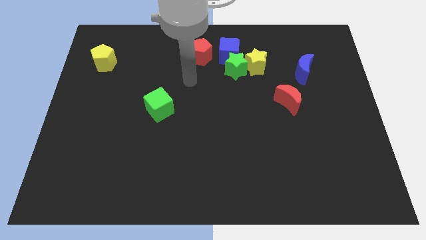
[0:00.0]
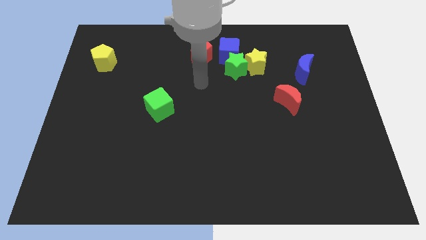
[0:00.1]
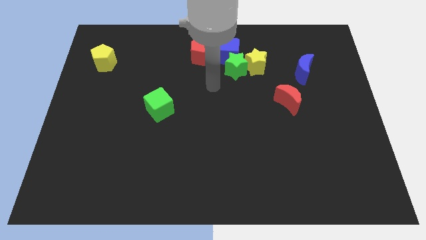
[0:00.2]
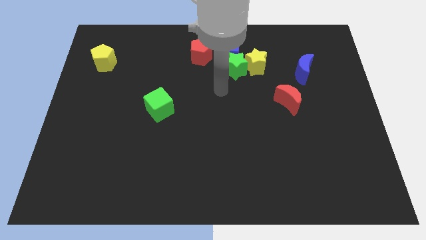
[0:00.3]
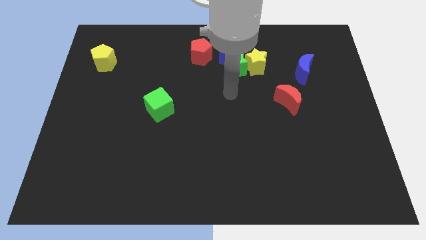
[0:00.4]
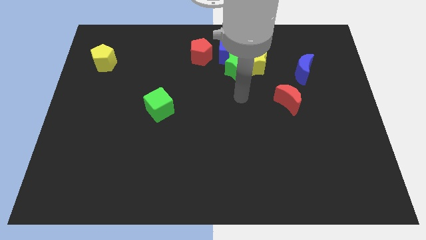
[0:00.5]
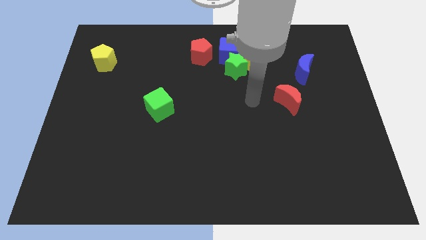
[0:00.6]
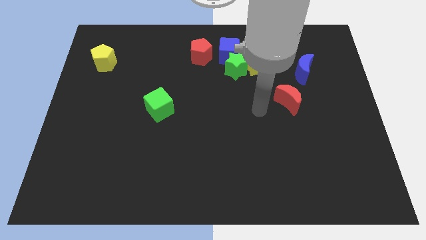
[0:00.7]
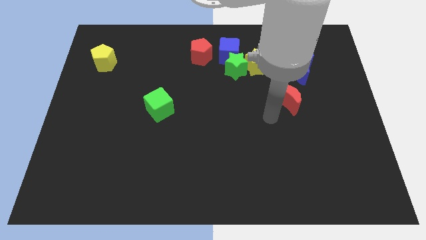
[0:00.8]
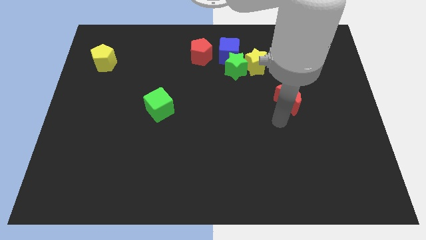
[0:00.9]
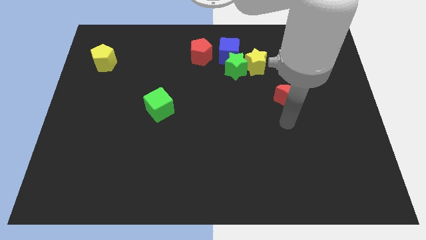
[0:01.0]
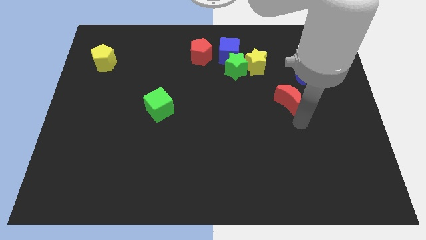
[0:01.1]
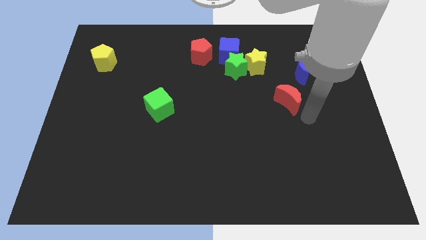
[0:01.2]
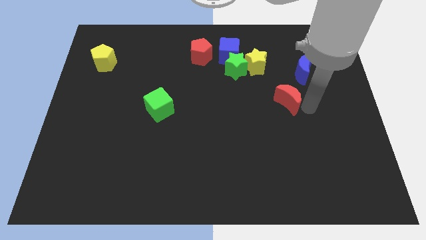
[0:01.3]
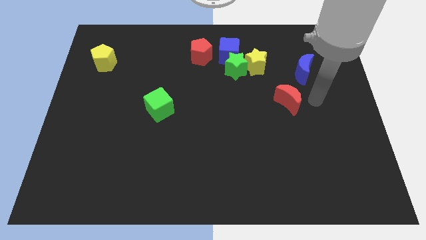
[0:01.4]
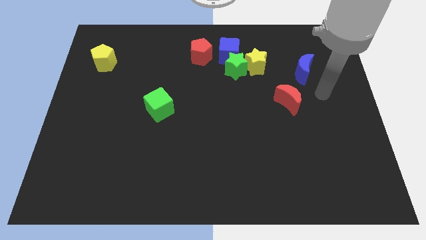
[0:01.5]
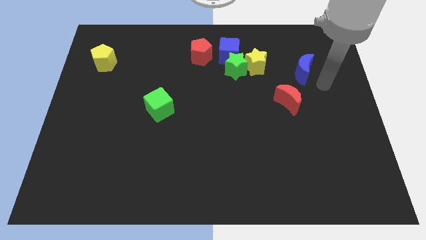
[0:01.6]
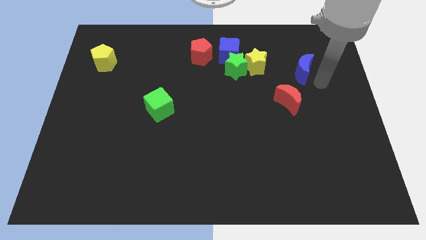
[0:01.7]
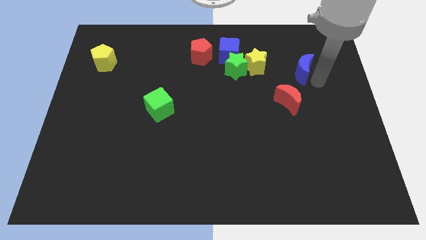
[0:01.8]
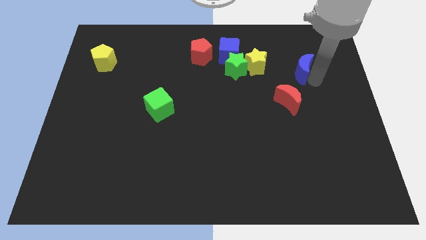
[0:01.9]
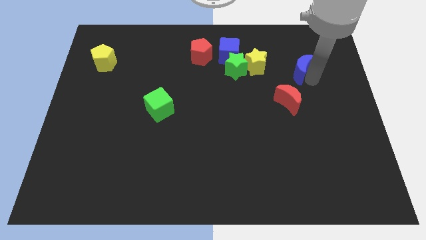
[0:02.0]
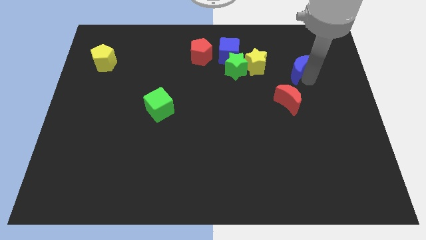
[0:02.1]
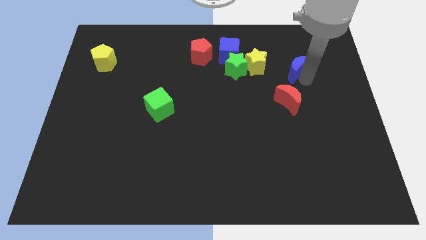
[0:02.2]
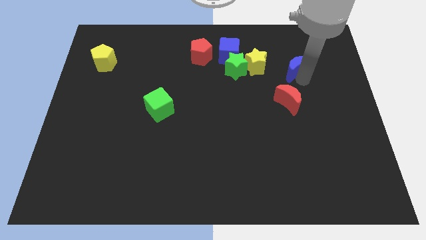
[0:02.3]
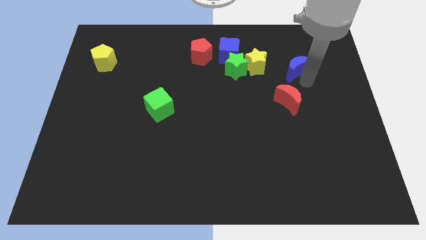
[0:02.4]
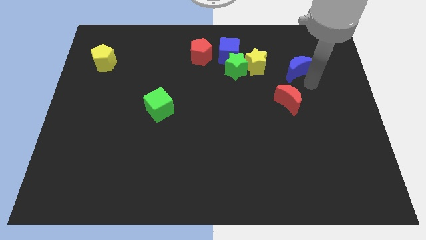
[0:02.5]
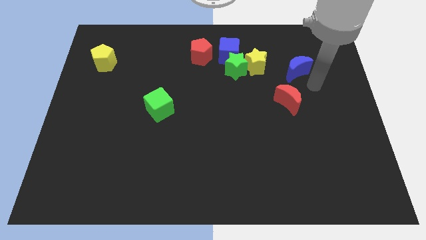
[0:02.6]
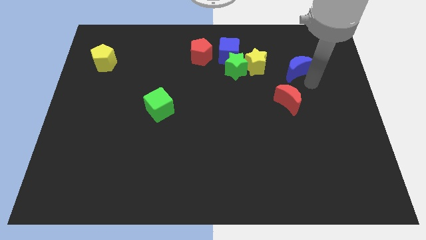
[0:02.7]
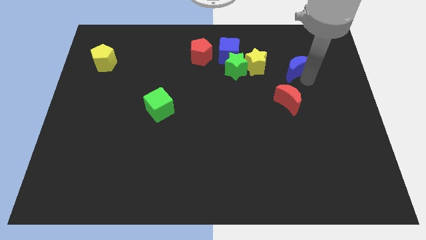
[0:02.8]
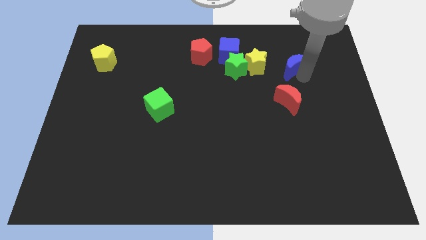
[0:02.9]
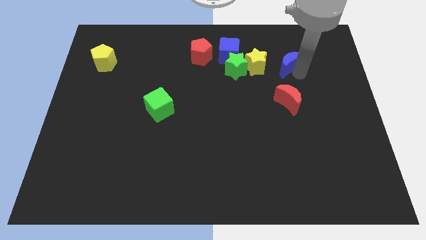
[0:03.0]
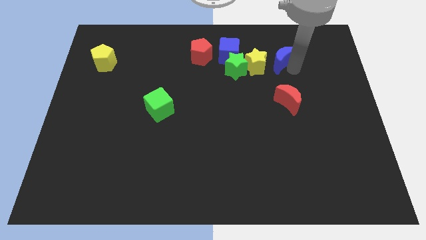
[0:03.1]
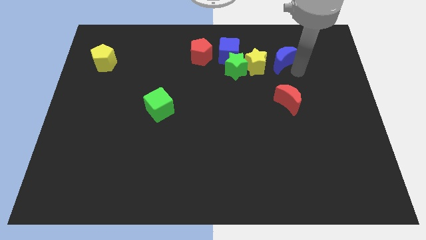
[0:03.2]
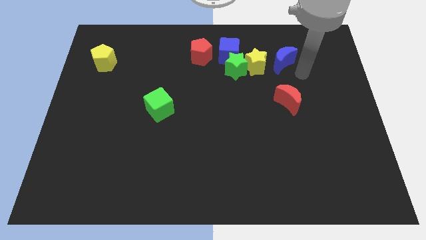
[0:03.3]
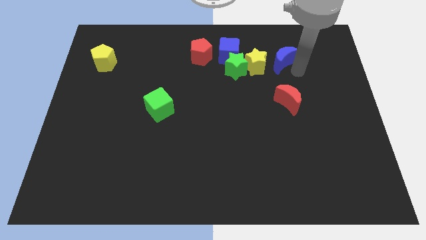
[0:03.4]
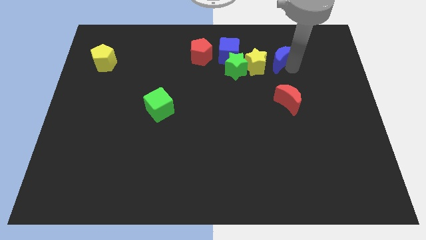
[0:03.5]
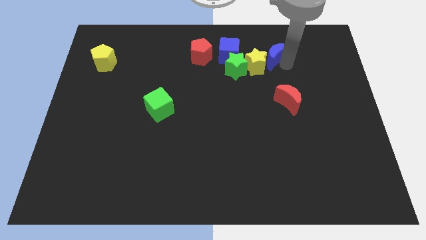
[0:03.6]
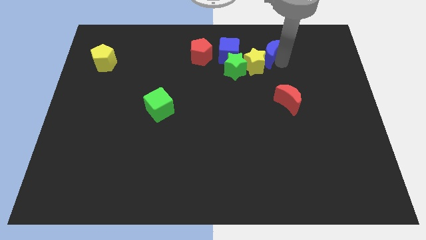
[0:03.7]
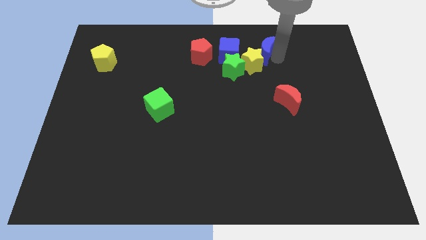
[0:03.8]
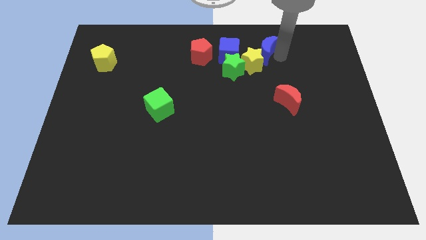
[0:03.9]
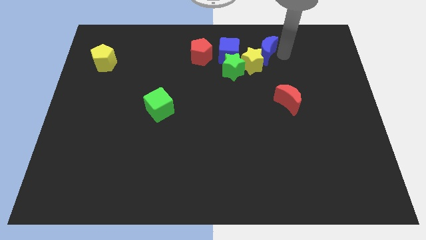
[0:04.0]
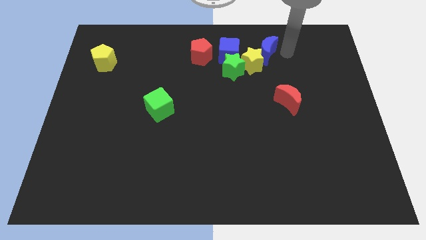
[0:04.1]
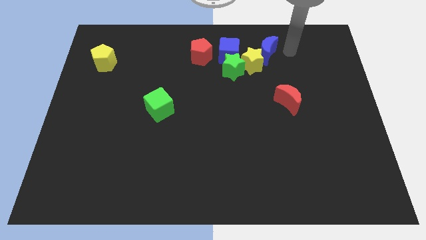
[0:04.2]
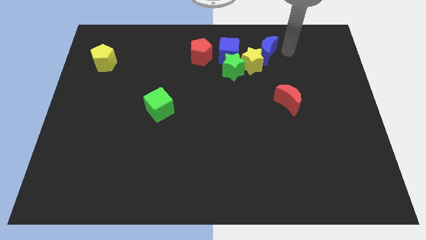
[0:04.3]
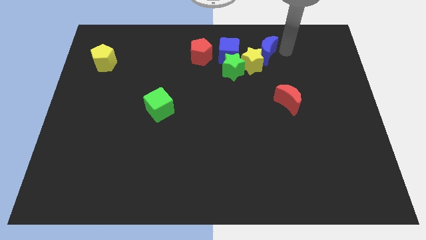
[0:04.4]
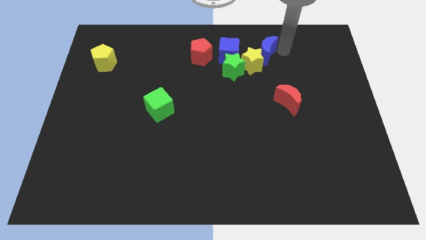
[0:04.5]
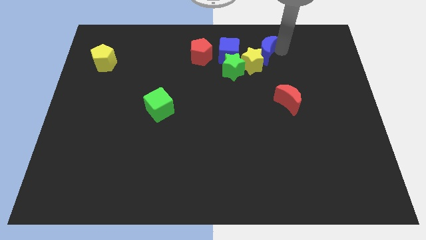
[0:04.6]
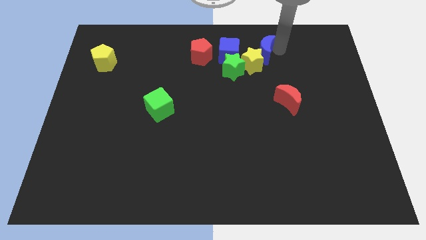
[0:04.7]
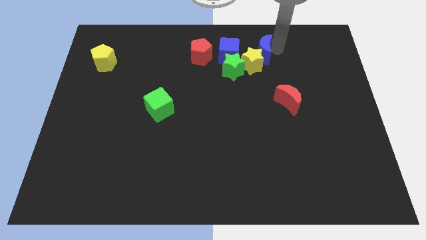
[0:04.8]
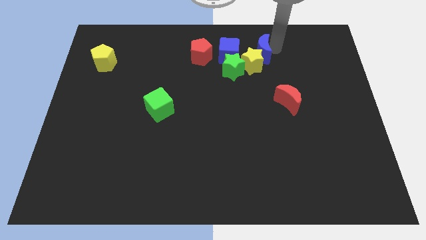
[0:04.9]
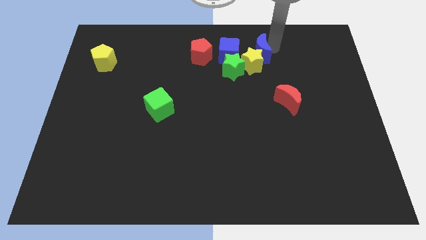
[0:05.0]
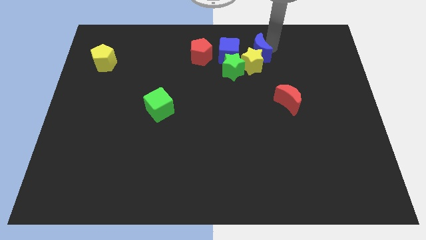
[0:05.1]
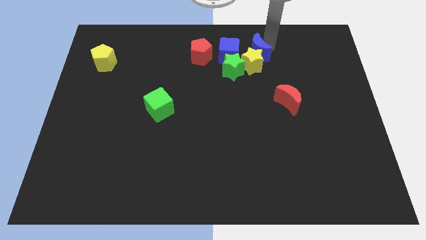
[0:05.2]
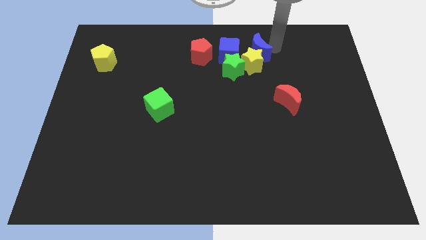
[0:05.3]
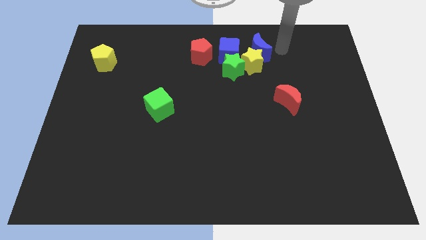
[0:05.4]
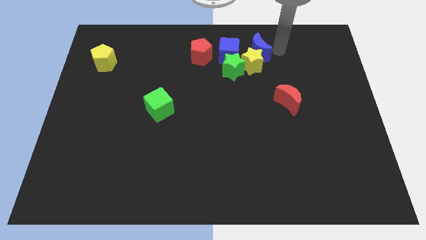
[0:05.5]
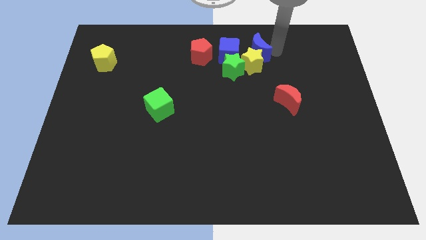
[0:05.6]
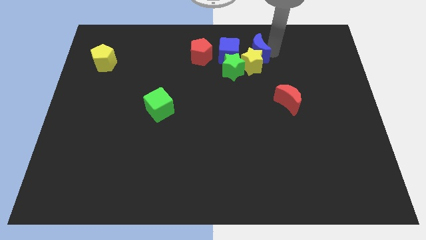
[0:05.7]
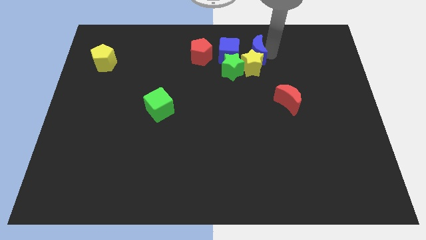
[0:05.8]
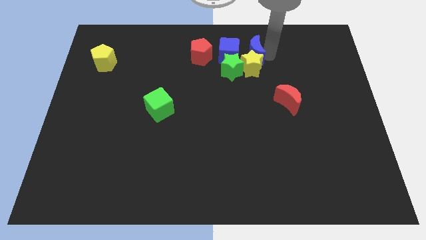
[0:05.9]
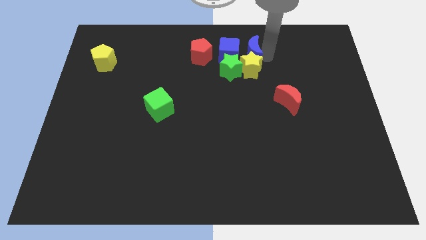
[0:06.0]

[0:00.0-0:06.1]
slide the blue moon close to the blue cube

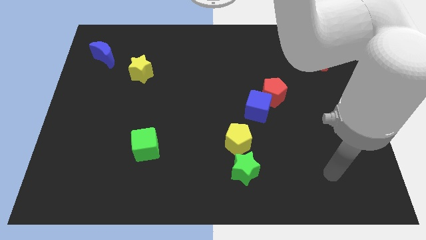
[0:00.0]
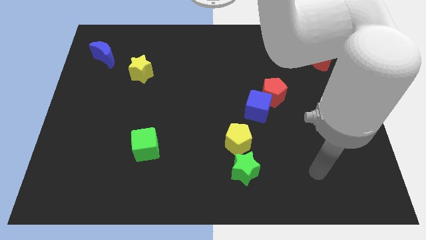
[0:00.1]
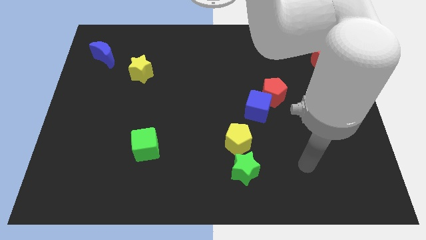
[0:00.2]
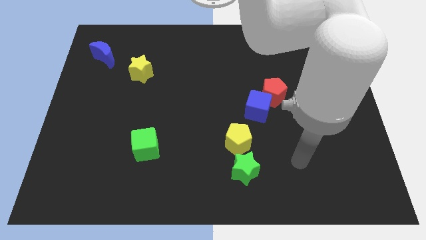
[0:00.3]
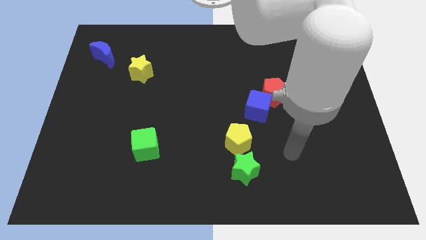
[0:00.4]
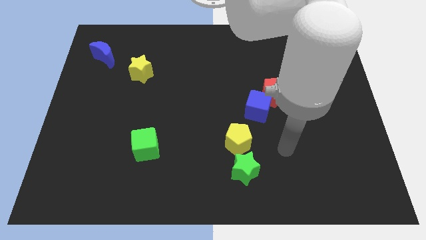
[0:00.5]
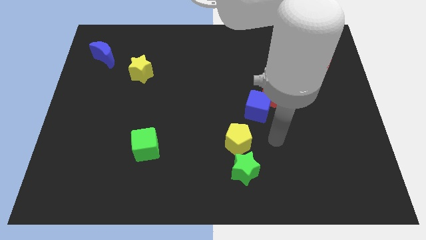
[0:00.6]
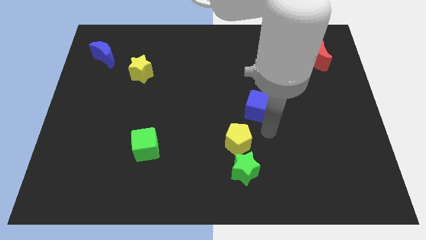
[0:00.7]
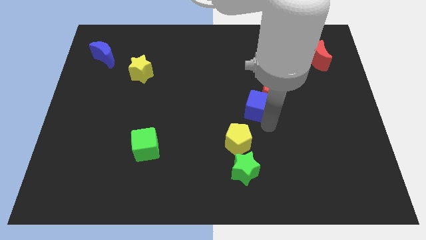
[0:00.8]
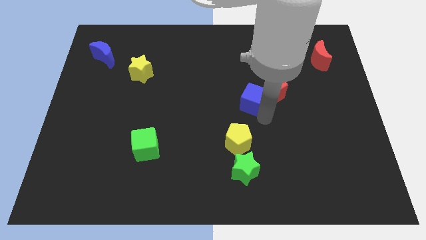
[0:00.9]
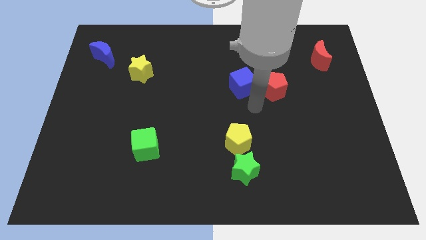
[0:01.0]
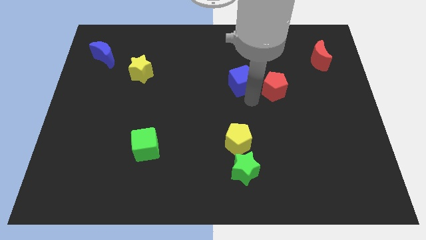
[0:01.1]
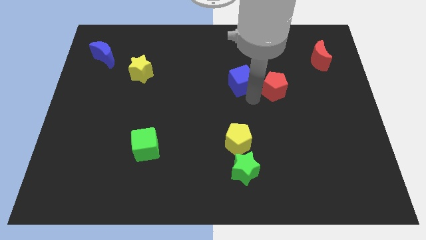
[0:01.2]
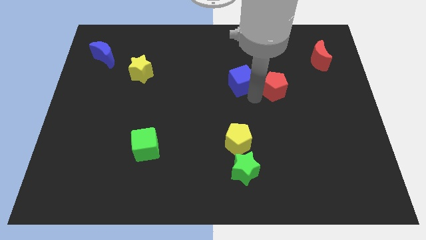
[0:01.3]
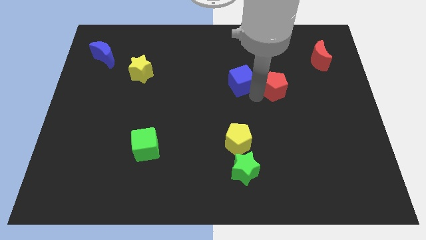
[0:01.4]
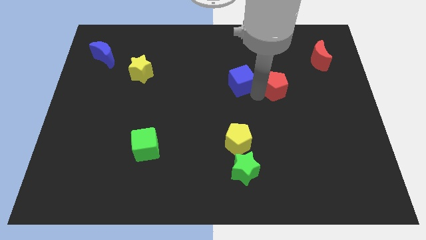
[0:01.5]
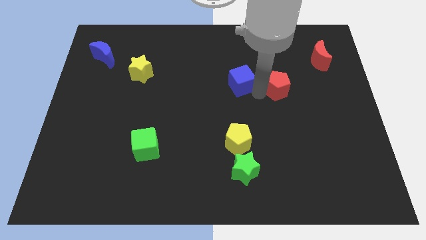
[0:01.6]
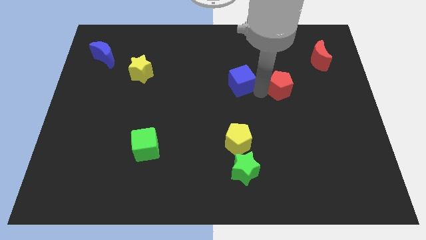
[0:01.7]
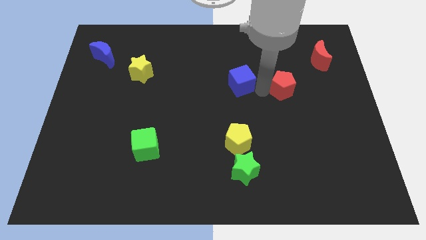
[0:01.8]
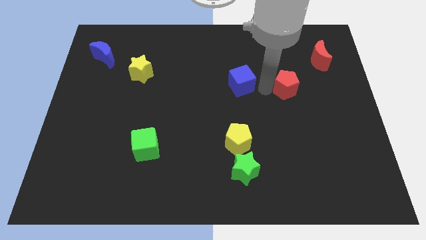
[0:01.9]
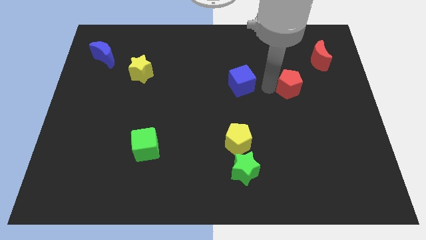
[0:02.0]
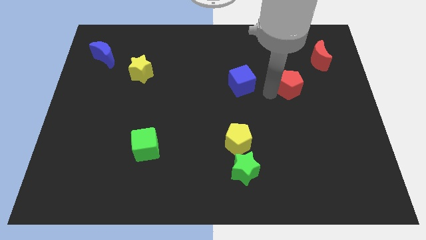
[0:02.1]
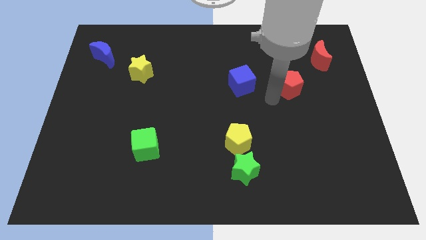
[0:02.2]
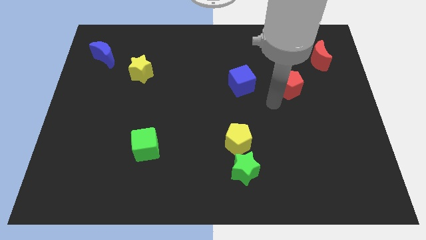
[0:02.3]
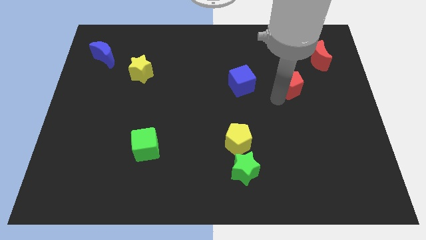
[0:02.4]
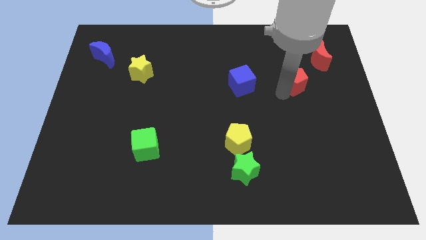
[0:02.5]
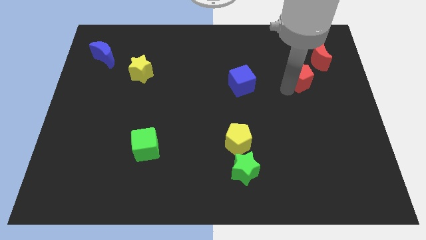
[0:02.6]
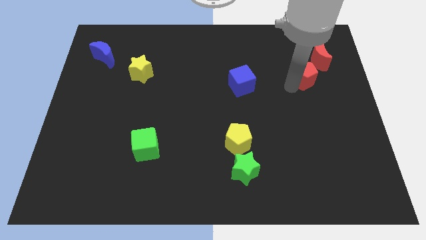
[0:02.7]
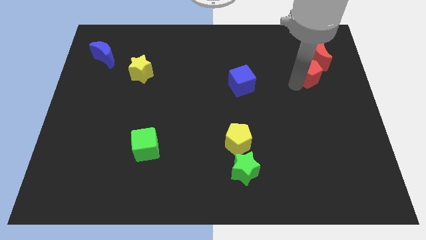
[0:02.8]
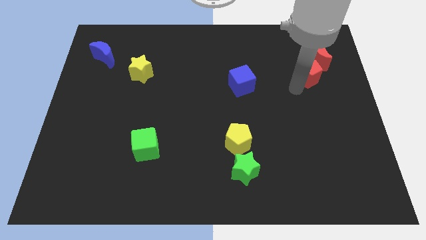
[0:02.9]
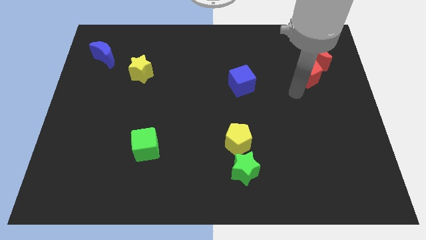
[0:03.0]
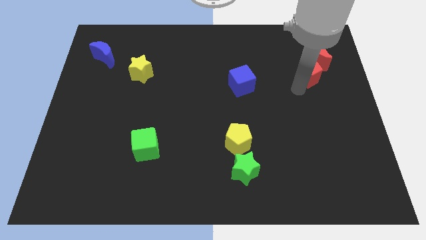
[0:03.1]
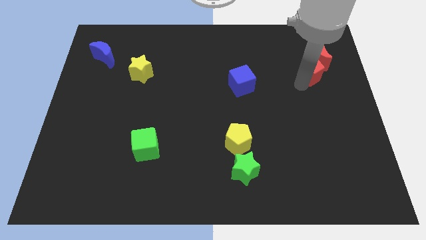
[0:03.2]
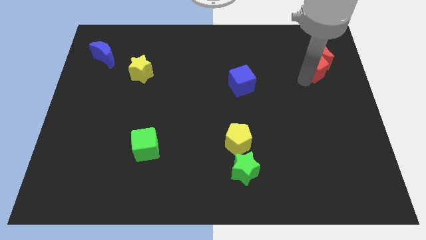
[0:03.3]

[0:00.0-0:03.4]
slide the red pentagon to the red moon
